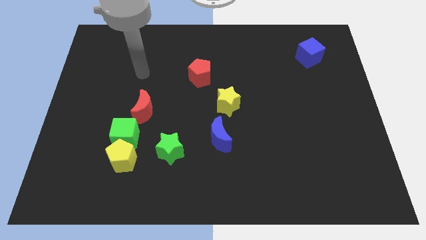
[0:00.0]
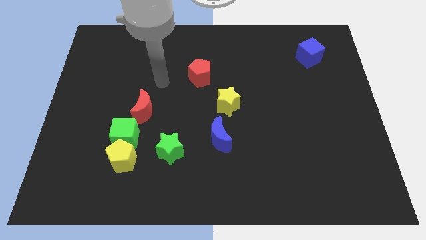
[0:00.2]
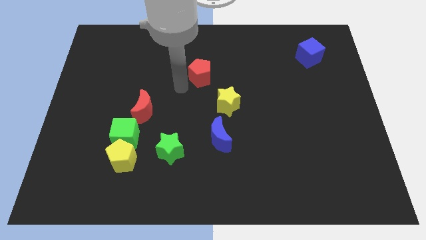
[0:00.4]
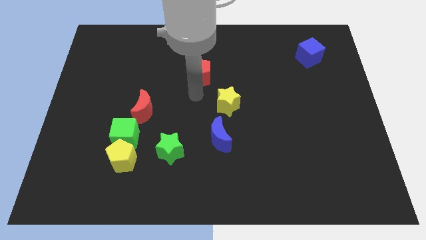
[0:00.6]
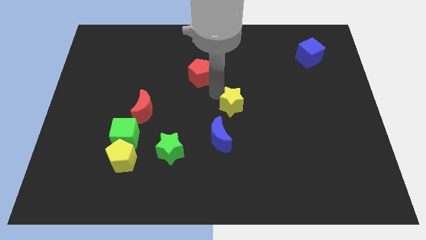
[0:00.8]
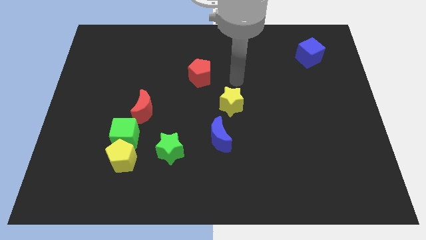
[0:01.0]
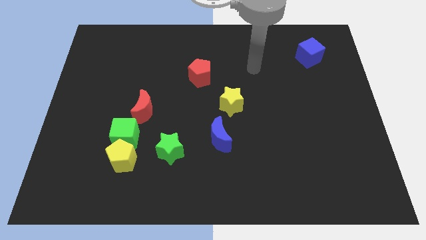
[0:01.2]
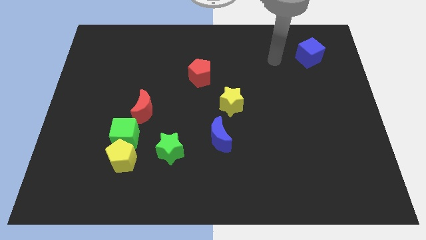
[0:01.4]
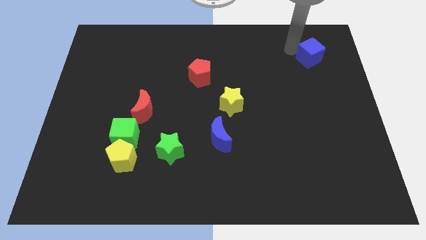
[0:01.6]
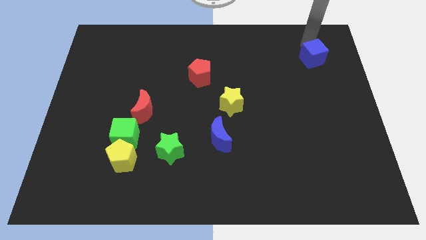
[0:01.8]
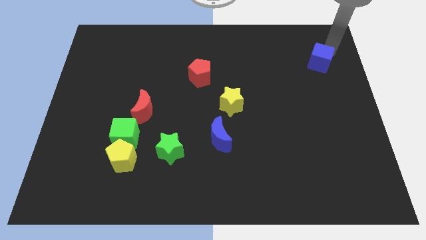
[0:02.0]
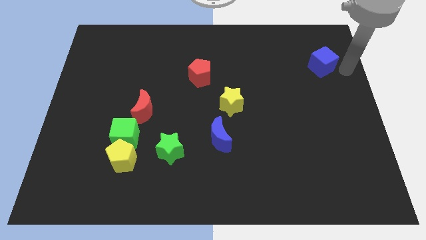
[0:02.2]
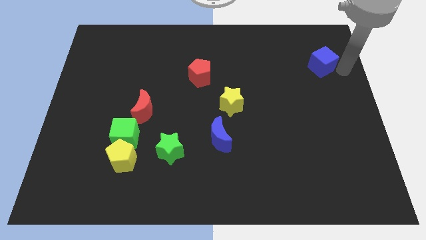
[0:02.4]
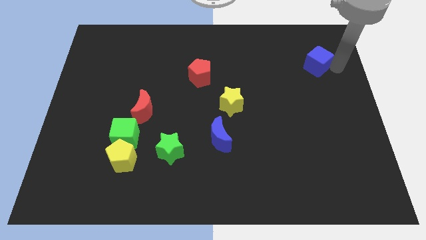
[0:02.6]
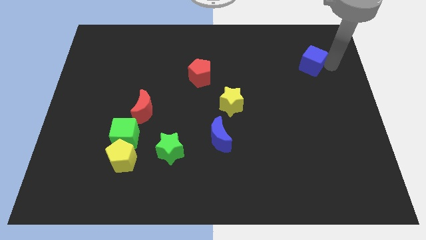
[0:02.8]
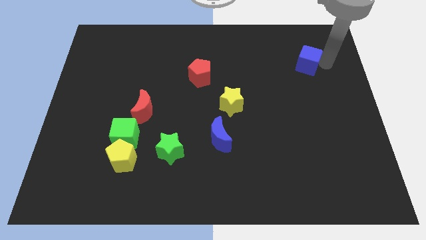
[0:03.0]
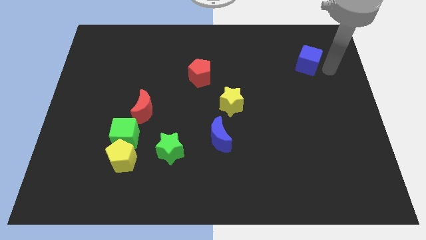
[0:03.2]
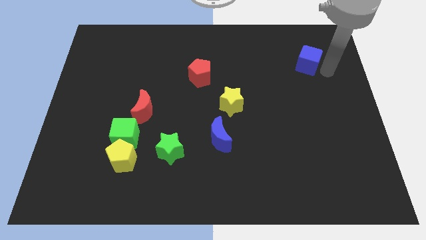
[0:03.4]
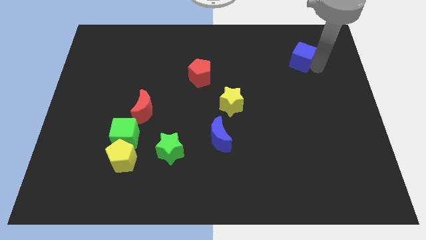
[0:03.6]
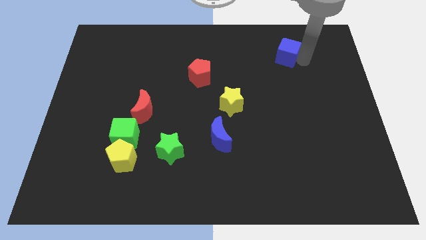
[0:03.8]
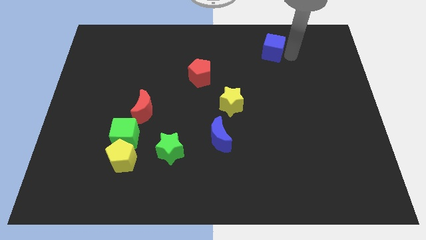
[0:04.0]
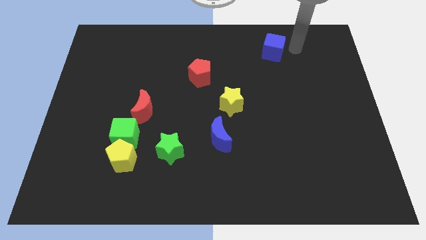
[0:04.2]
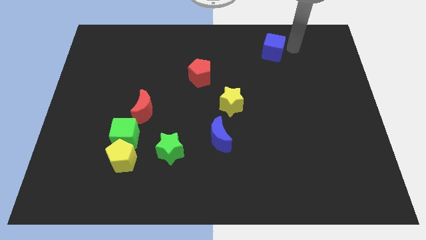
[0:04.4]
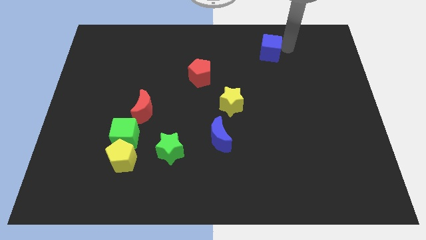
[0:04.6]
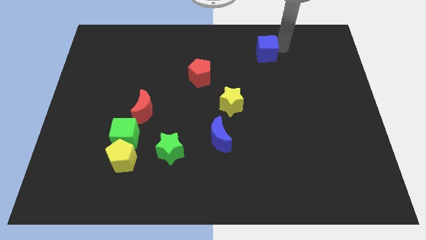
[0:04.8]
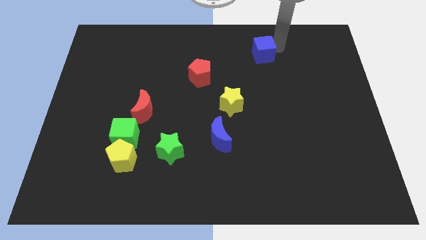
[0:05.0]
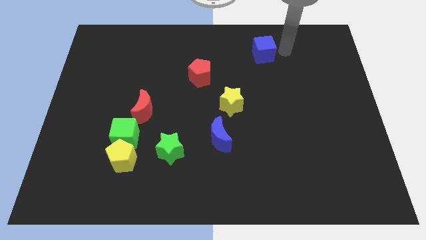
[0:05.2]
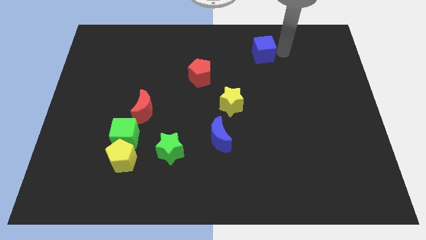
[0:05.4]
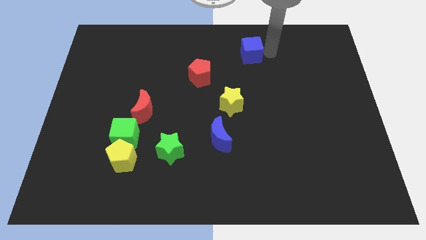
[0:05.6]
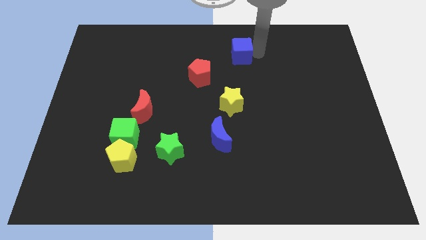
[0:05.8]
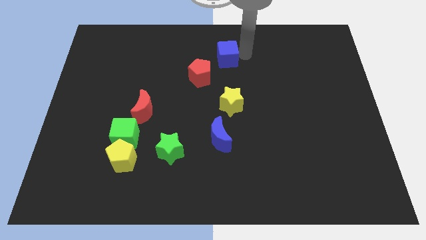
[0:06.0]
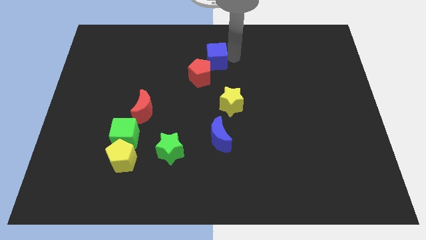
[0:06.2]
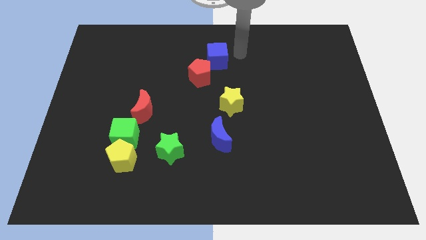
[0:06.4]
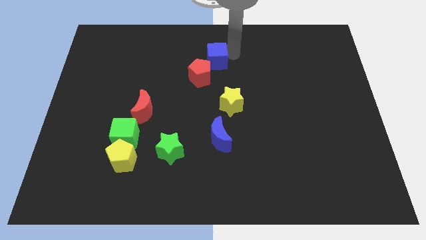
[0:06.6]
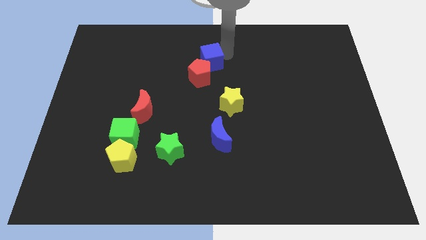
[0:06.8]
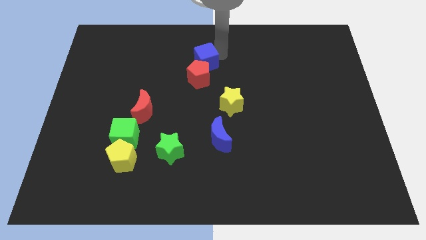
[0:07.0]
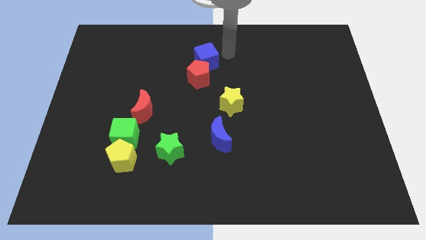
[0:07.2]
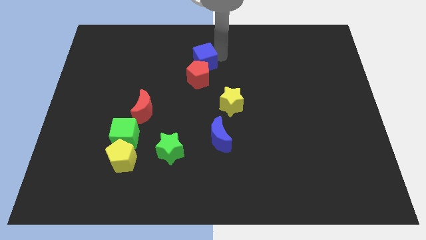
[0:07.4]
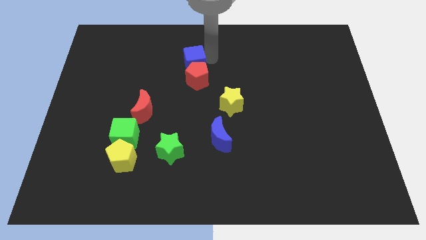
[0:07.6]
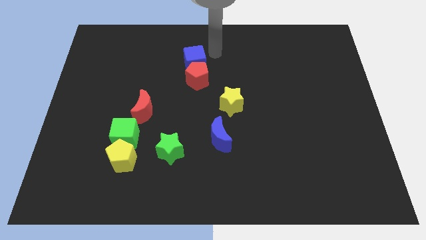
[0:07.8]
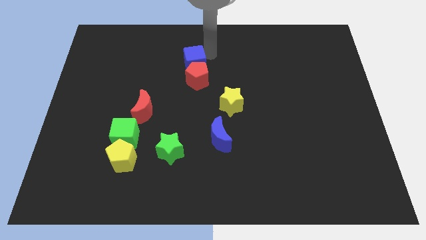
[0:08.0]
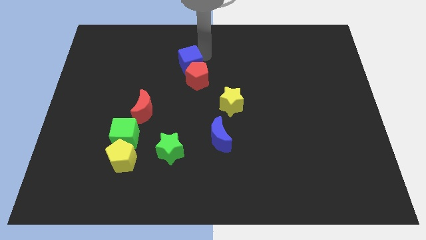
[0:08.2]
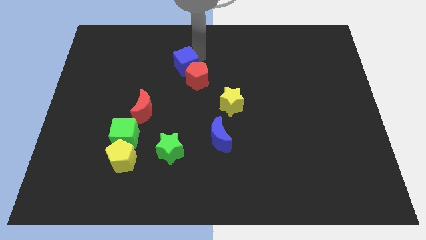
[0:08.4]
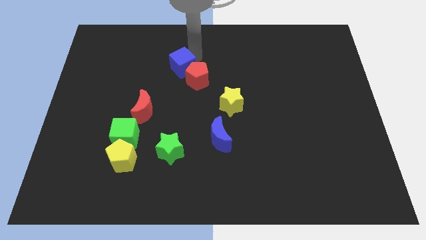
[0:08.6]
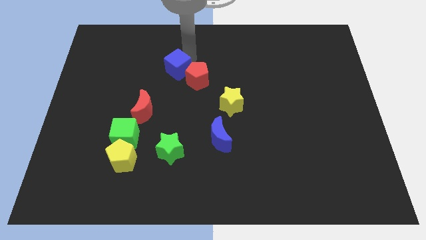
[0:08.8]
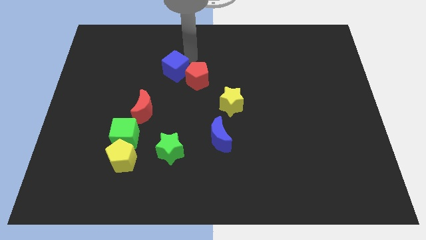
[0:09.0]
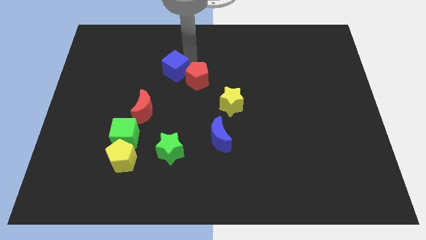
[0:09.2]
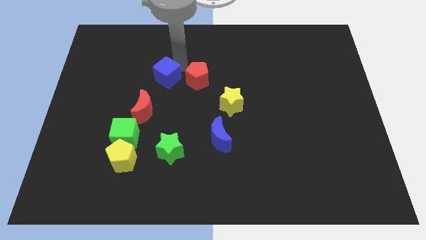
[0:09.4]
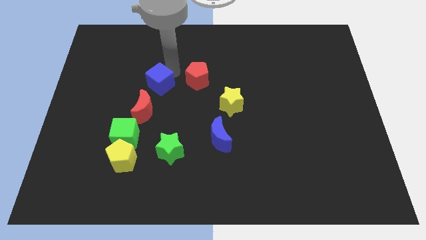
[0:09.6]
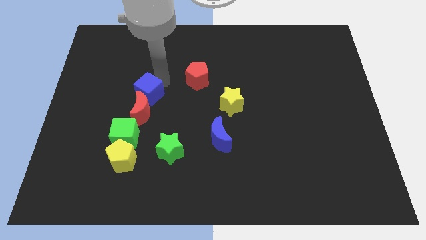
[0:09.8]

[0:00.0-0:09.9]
move the blue cube to the top of the green cube

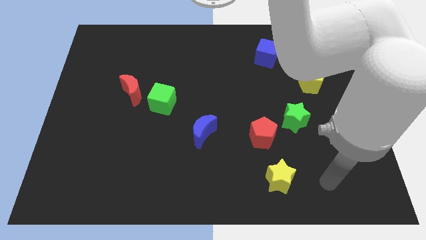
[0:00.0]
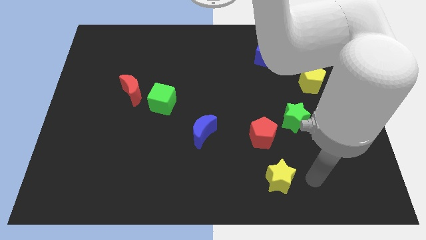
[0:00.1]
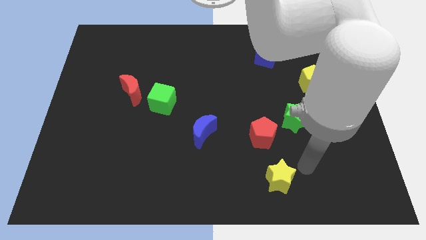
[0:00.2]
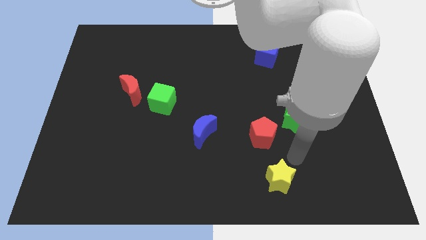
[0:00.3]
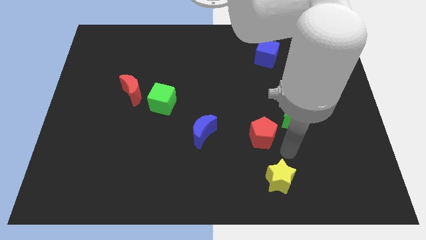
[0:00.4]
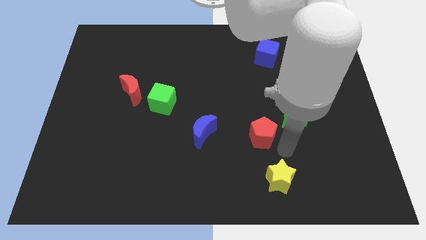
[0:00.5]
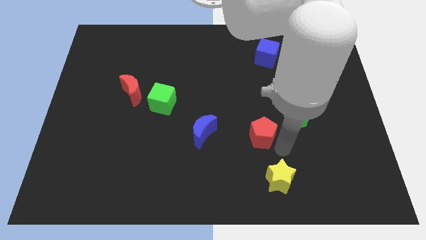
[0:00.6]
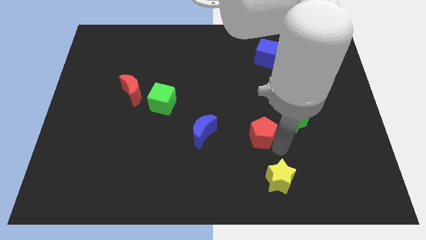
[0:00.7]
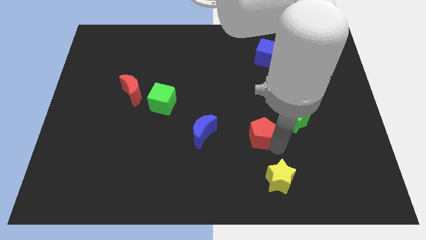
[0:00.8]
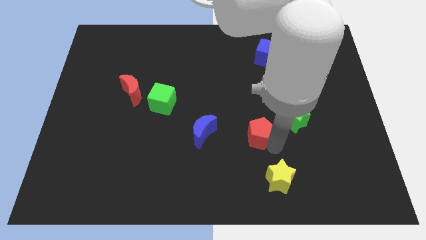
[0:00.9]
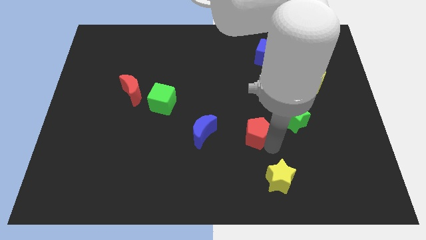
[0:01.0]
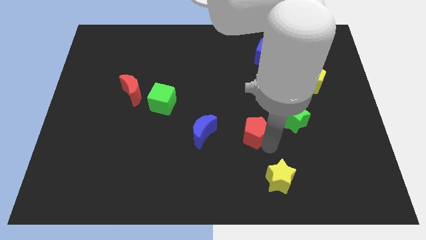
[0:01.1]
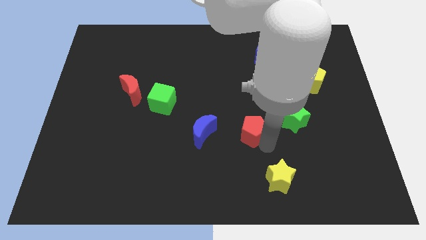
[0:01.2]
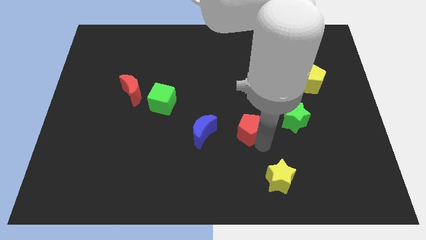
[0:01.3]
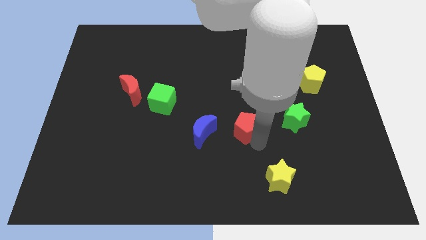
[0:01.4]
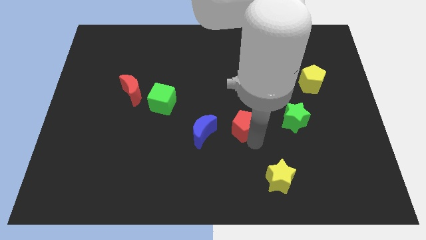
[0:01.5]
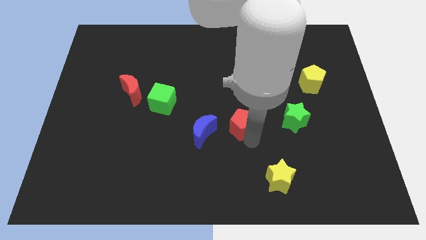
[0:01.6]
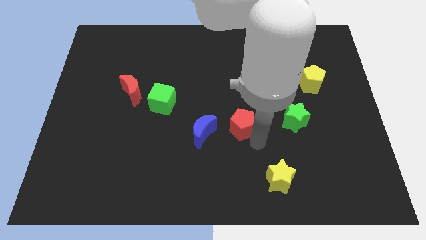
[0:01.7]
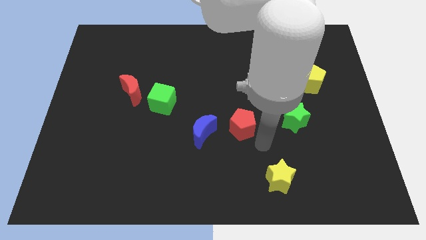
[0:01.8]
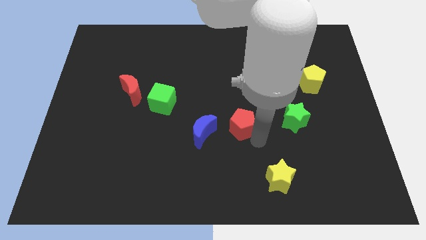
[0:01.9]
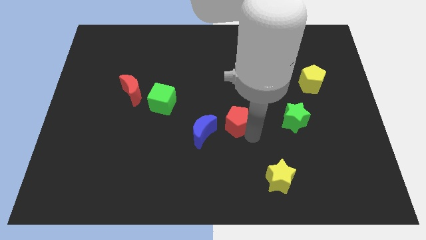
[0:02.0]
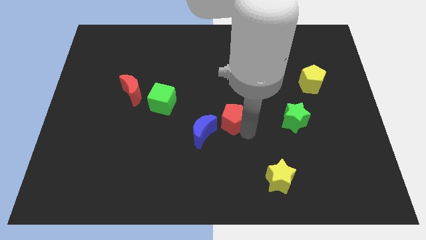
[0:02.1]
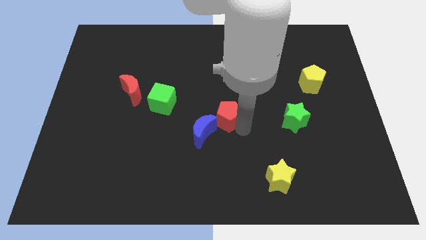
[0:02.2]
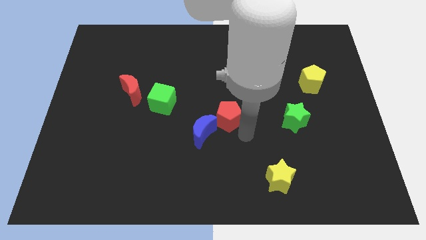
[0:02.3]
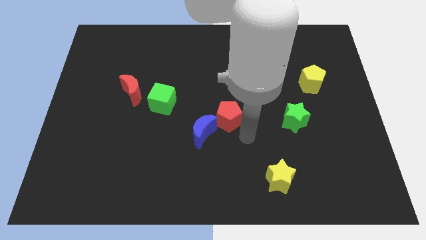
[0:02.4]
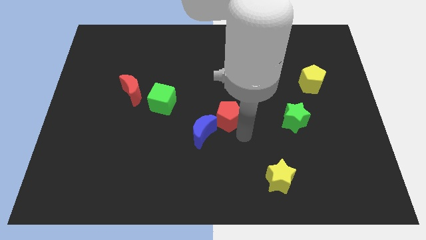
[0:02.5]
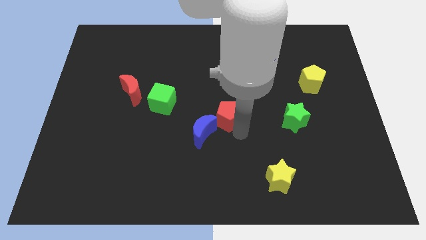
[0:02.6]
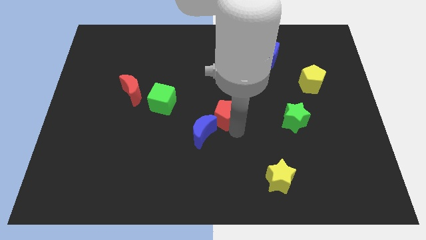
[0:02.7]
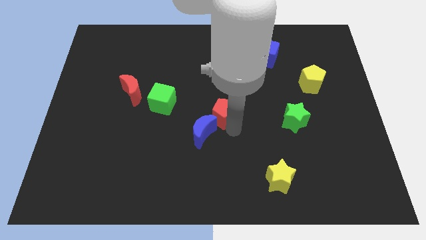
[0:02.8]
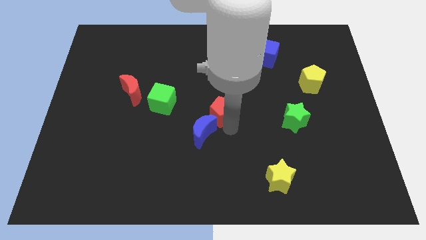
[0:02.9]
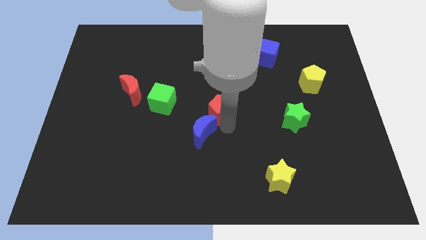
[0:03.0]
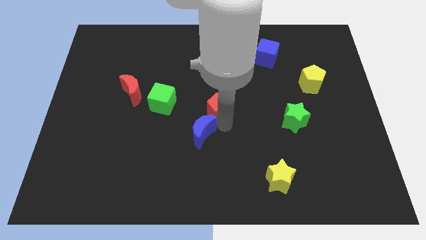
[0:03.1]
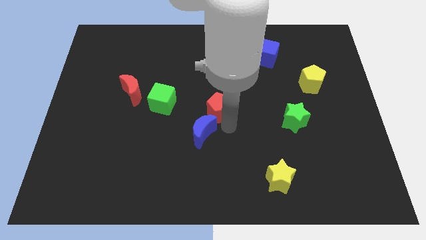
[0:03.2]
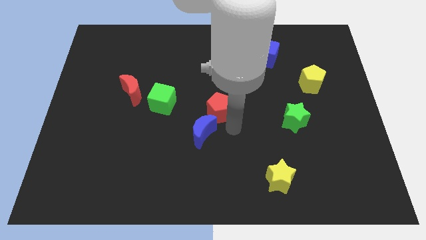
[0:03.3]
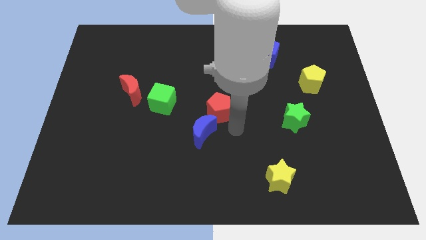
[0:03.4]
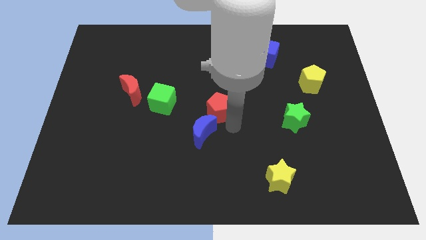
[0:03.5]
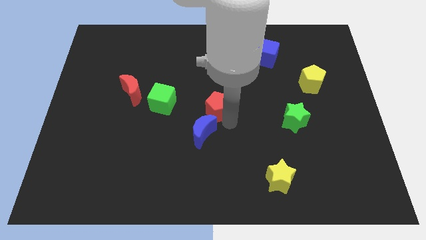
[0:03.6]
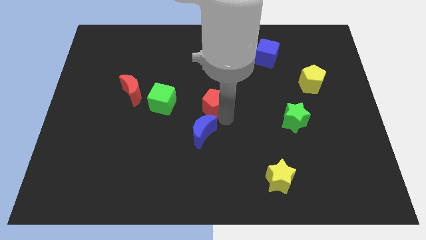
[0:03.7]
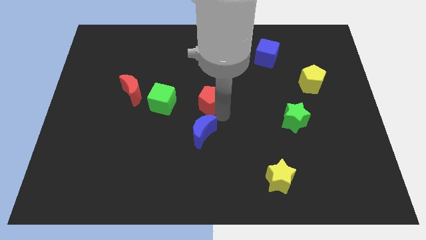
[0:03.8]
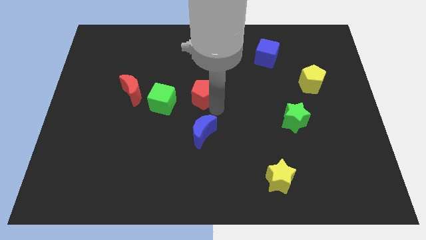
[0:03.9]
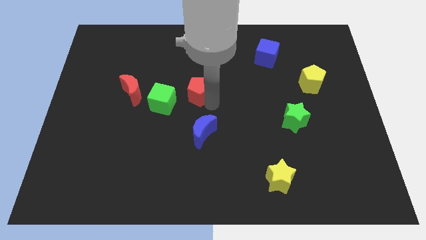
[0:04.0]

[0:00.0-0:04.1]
slide the red pentagon to the top right side of the green cube
